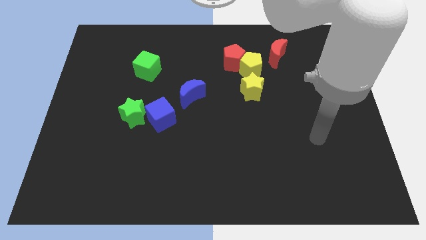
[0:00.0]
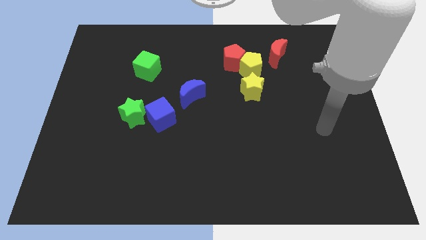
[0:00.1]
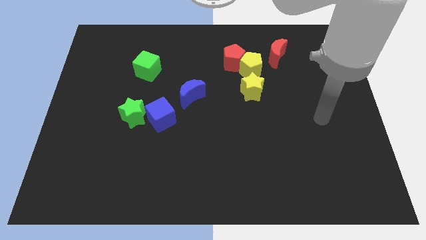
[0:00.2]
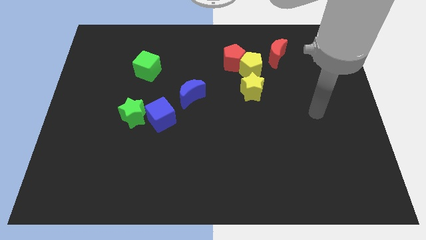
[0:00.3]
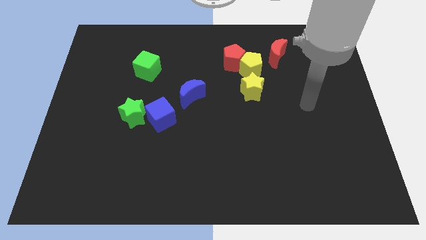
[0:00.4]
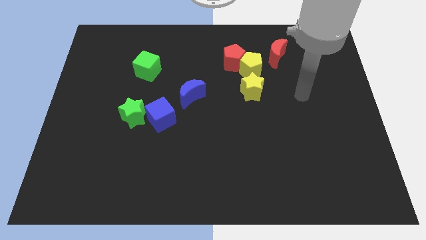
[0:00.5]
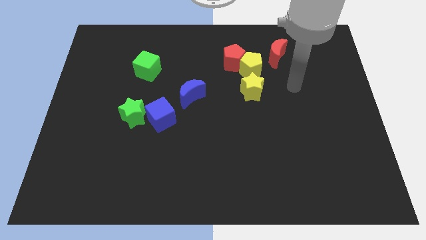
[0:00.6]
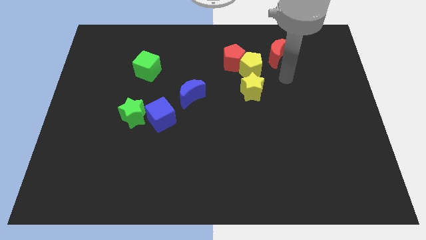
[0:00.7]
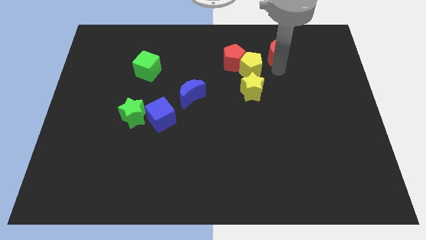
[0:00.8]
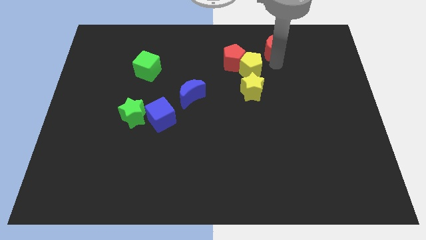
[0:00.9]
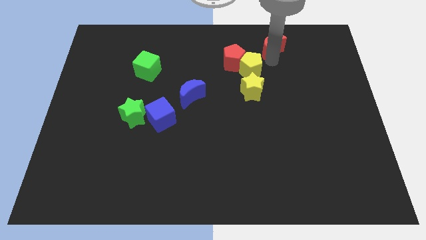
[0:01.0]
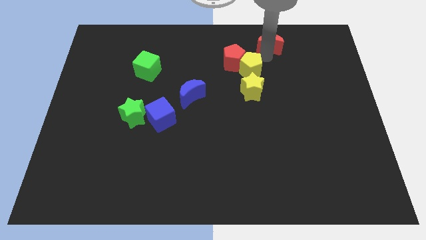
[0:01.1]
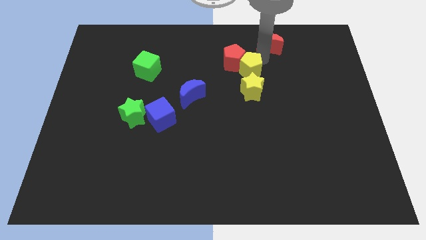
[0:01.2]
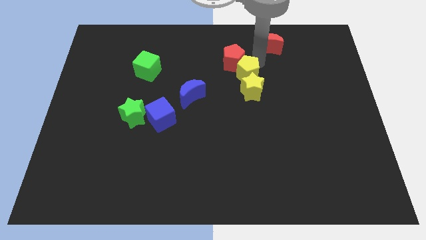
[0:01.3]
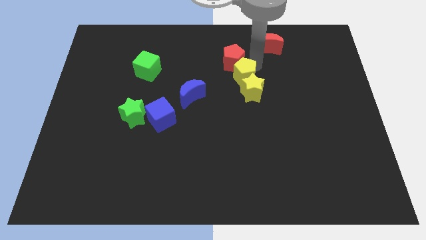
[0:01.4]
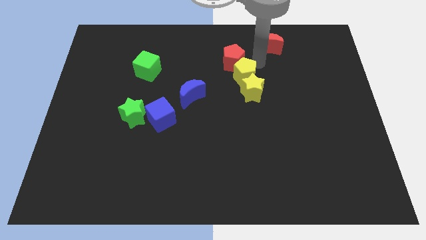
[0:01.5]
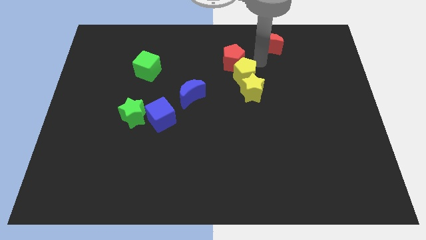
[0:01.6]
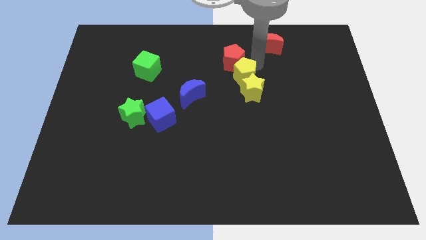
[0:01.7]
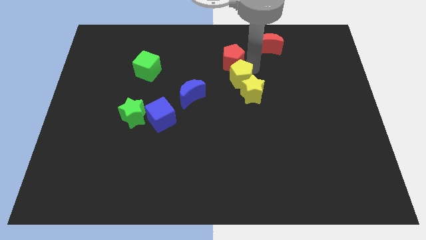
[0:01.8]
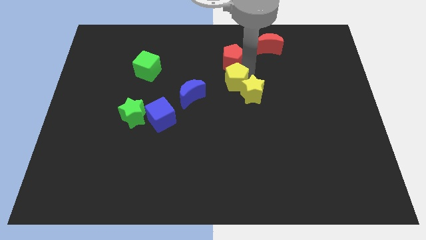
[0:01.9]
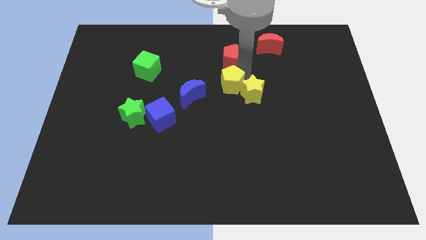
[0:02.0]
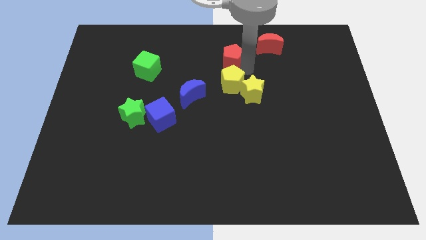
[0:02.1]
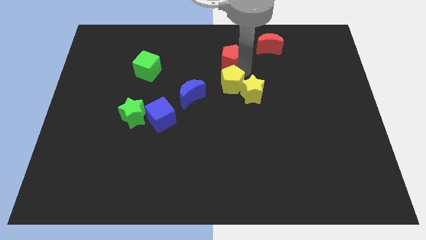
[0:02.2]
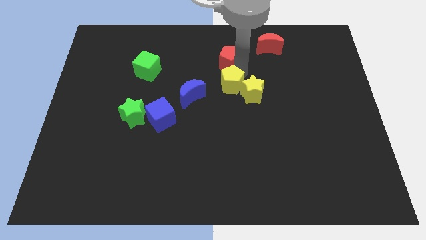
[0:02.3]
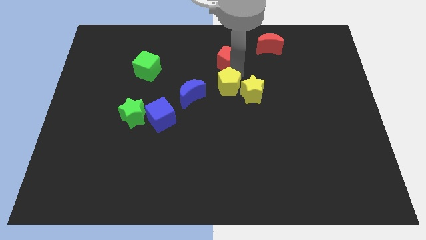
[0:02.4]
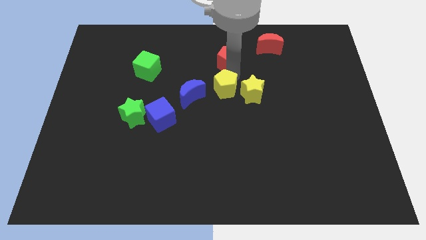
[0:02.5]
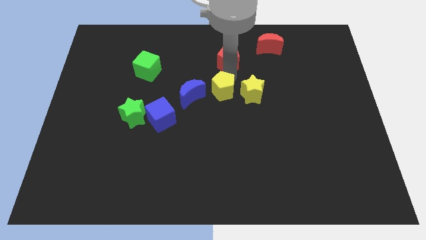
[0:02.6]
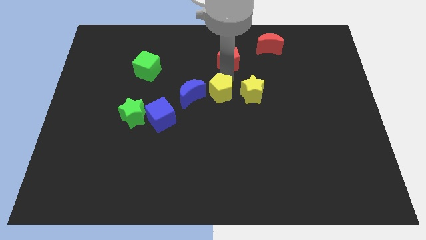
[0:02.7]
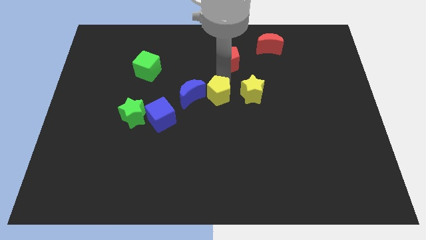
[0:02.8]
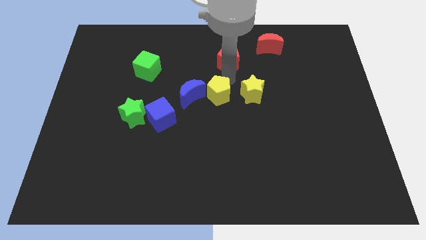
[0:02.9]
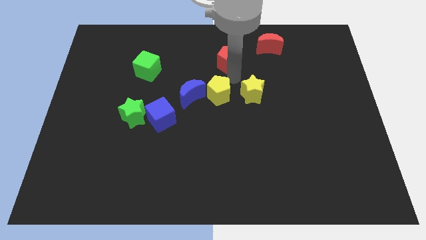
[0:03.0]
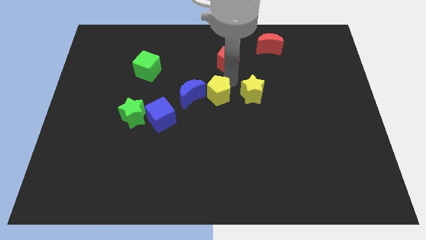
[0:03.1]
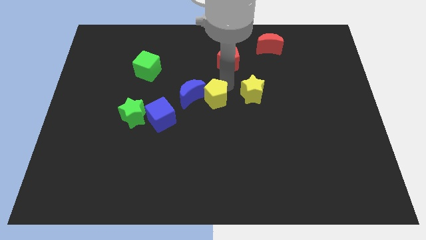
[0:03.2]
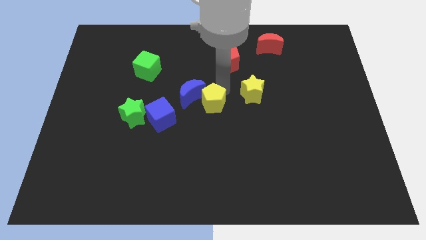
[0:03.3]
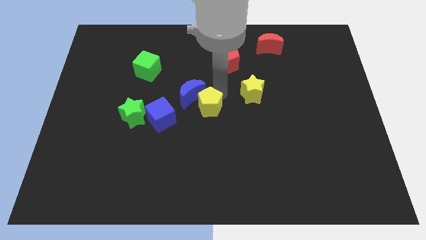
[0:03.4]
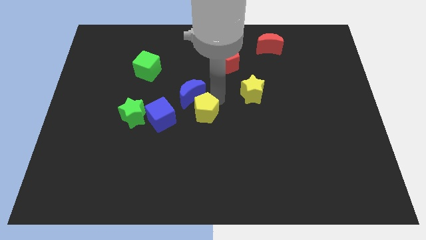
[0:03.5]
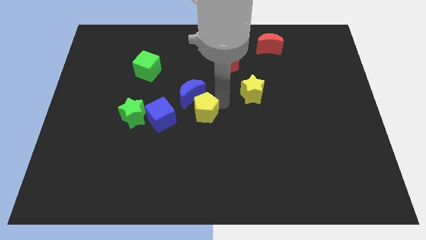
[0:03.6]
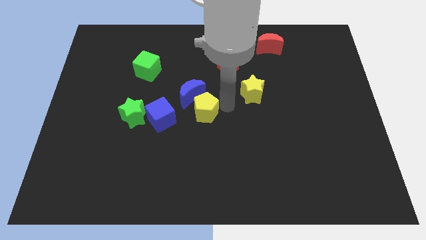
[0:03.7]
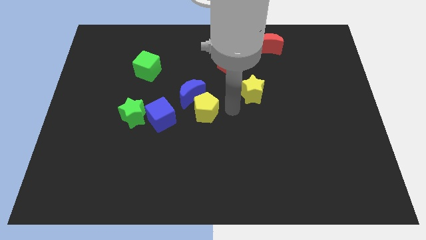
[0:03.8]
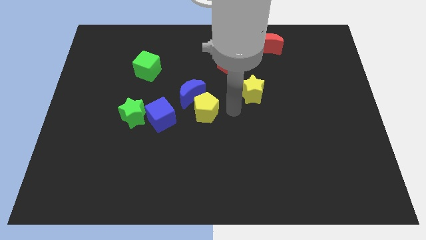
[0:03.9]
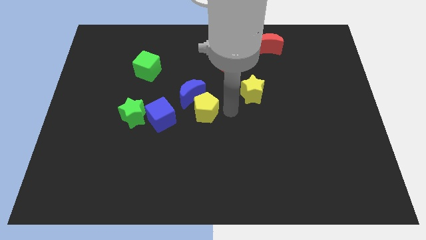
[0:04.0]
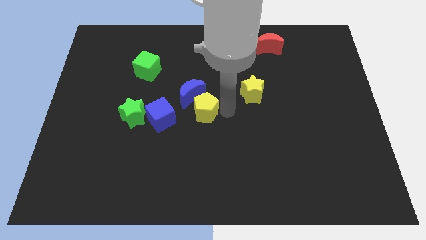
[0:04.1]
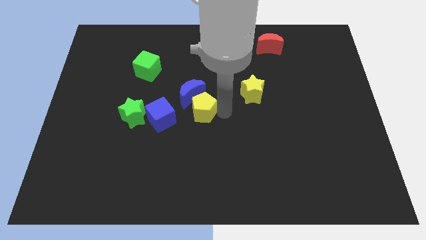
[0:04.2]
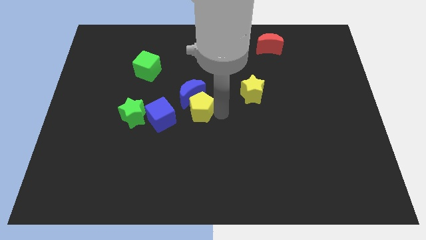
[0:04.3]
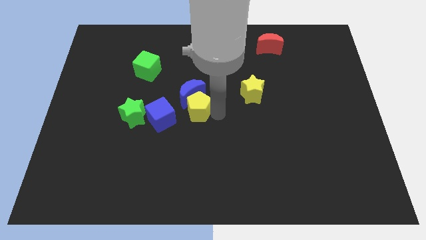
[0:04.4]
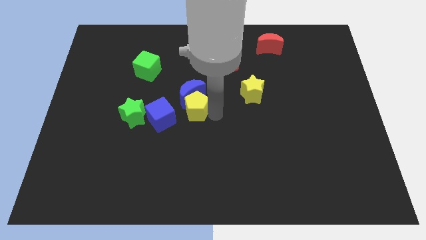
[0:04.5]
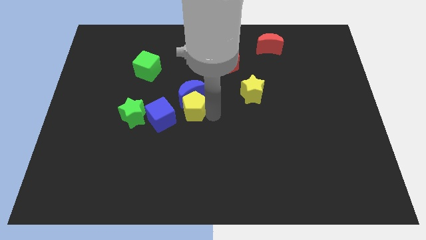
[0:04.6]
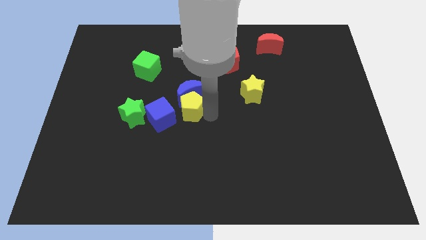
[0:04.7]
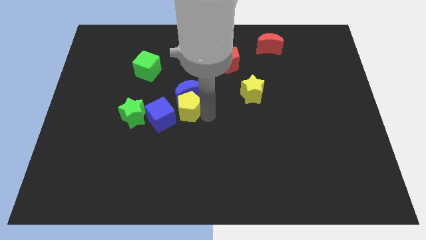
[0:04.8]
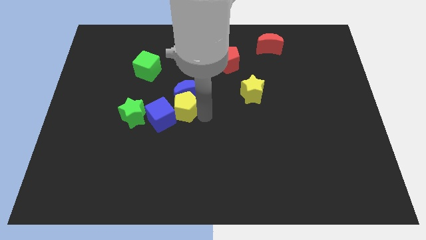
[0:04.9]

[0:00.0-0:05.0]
move the yellow pentagon next to the blue cube

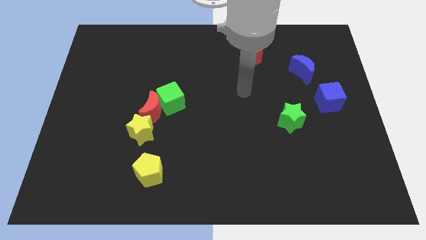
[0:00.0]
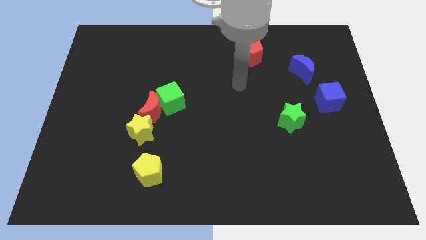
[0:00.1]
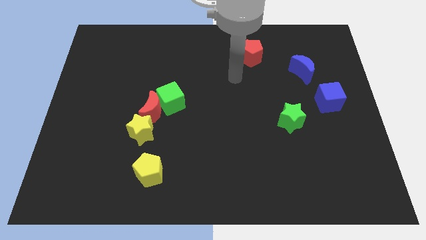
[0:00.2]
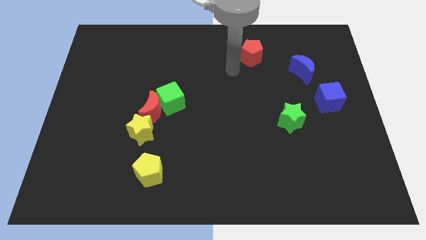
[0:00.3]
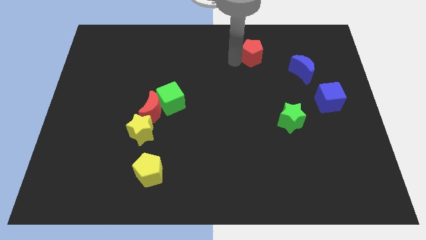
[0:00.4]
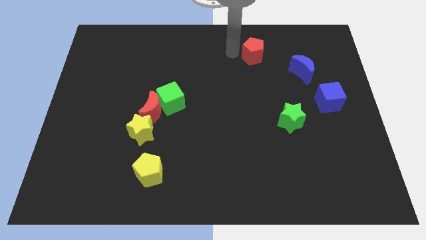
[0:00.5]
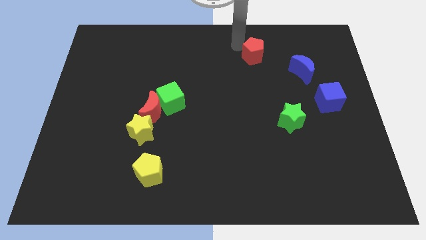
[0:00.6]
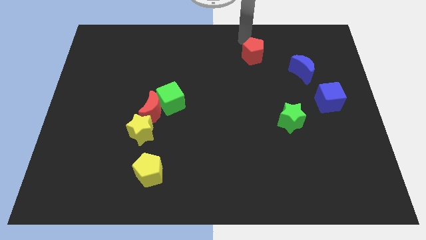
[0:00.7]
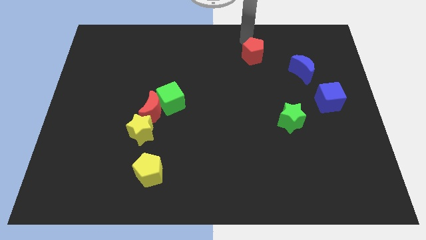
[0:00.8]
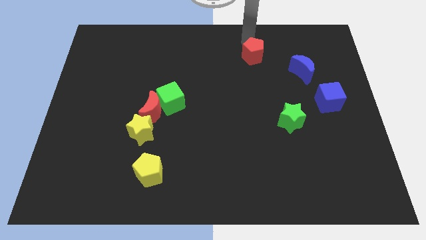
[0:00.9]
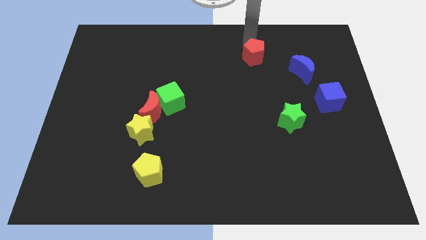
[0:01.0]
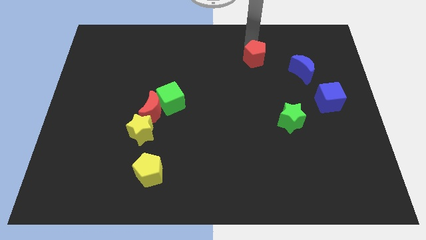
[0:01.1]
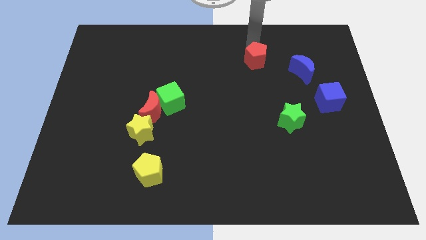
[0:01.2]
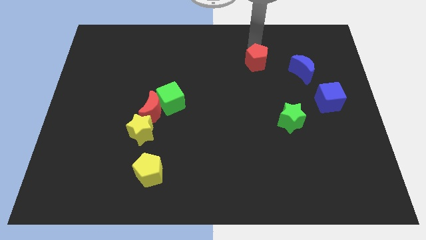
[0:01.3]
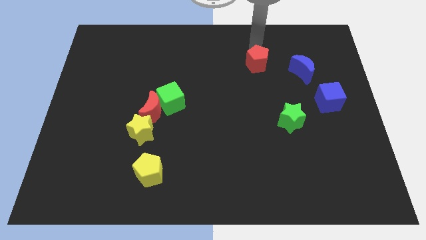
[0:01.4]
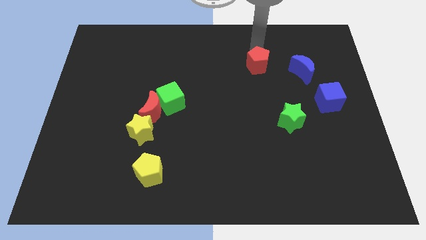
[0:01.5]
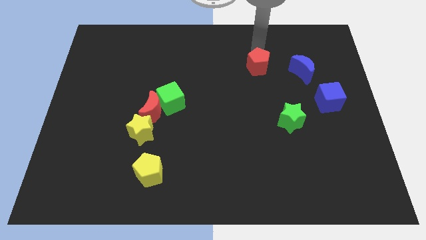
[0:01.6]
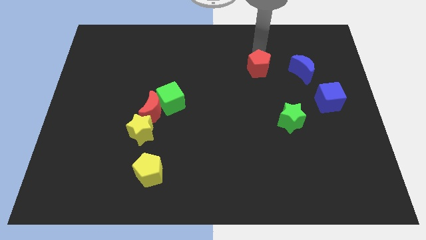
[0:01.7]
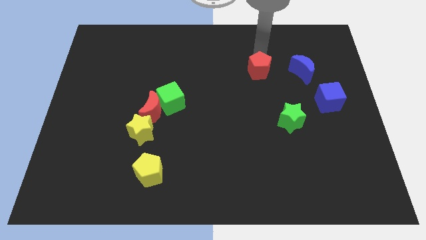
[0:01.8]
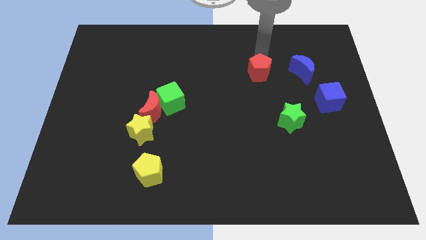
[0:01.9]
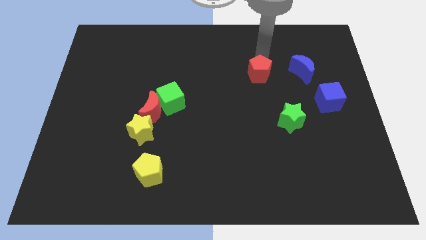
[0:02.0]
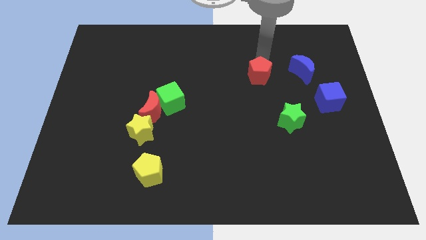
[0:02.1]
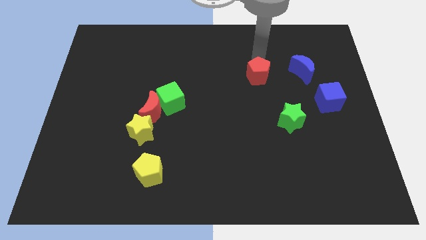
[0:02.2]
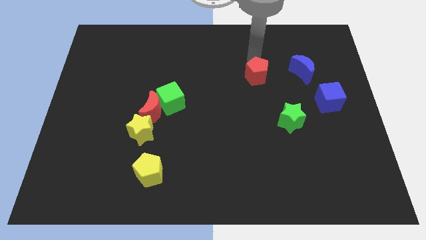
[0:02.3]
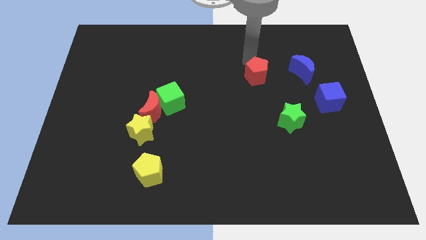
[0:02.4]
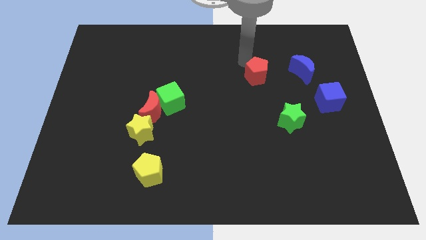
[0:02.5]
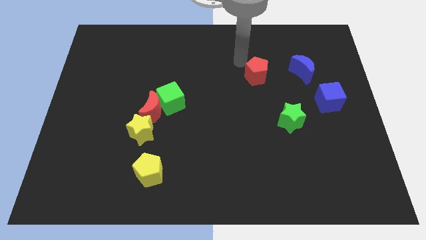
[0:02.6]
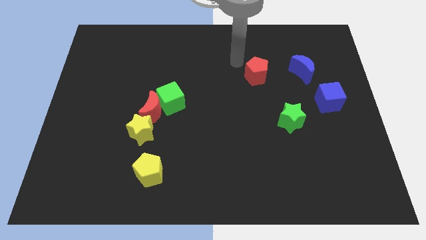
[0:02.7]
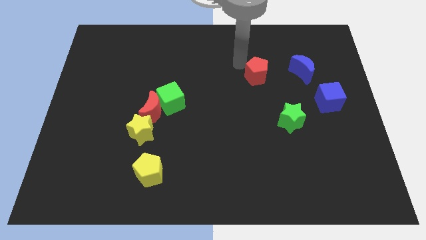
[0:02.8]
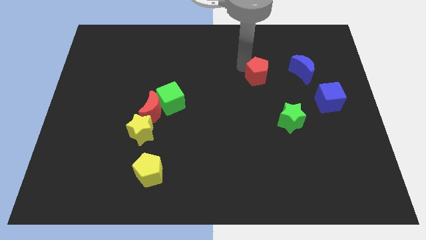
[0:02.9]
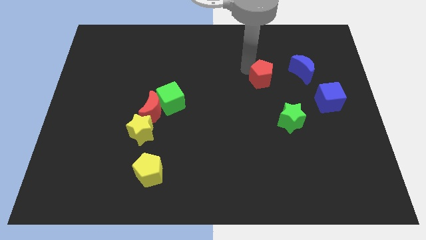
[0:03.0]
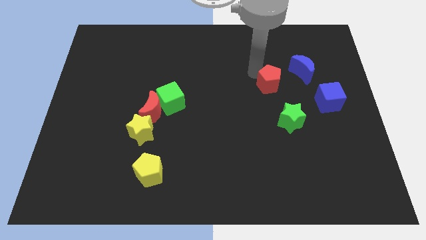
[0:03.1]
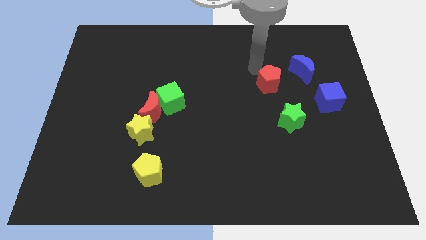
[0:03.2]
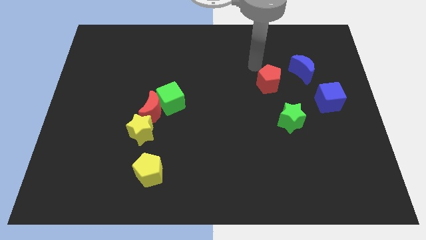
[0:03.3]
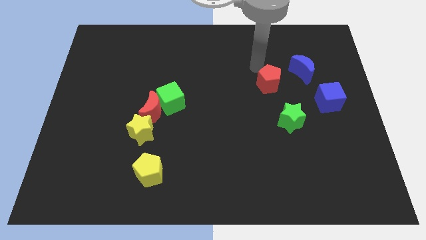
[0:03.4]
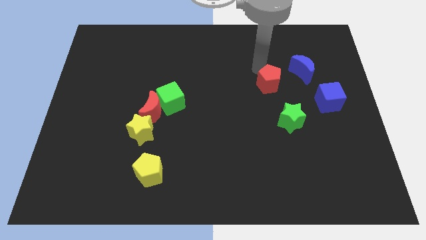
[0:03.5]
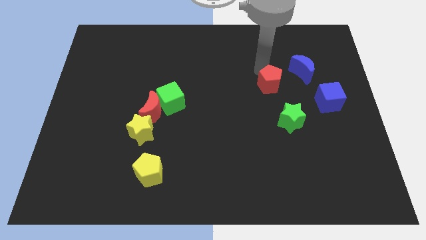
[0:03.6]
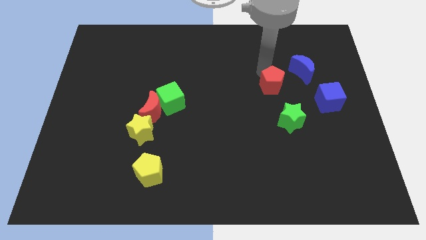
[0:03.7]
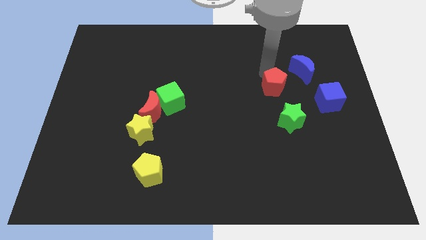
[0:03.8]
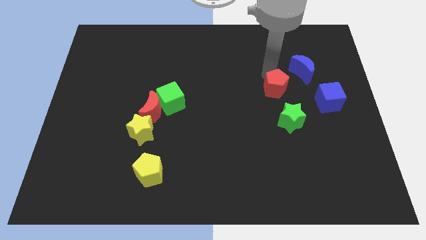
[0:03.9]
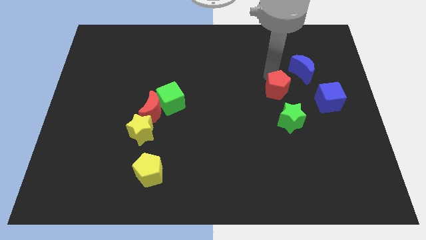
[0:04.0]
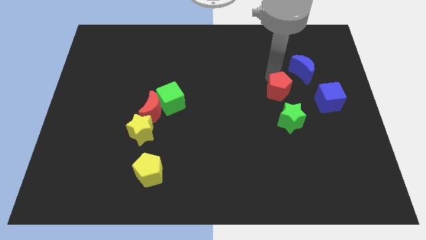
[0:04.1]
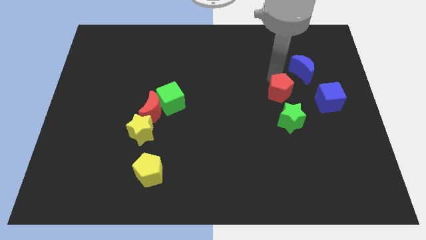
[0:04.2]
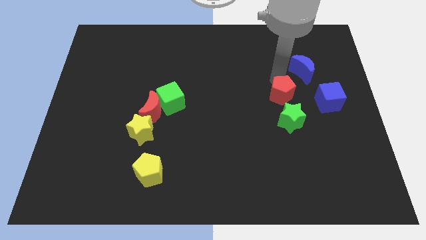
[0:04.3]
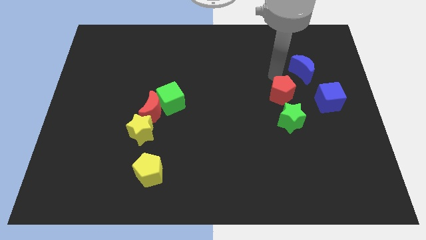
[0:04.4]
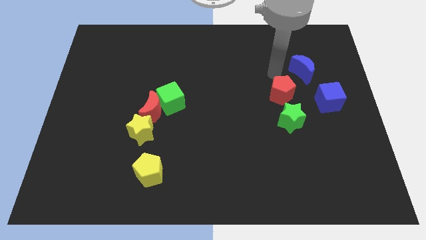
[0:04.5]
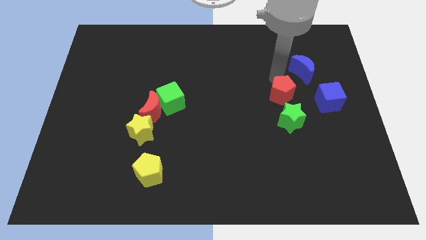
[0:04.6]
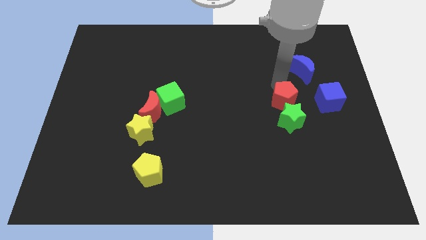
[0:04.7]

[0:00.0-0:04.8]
put the red pentagon close to the green star
